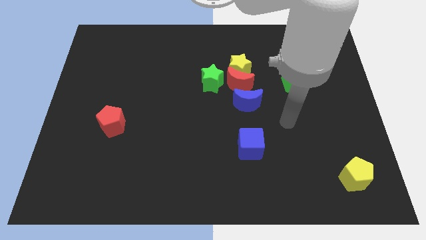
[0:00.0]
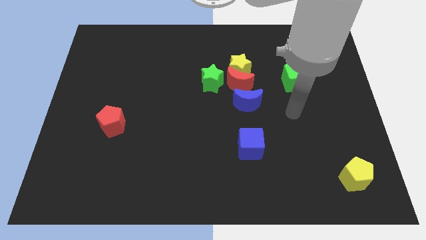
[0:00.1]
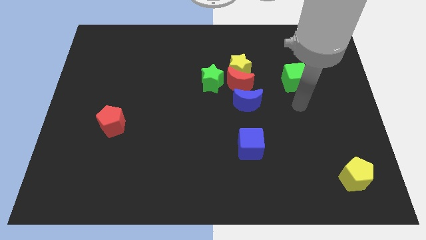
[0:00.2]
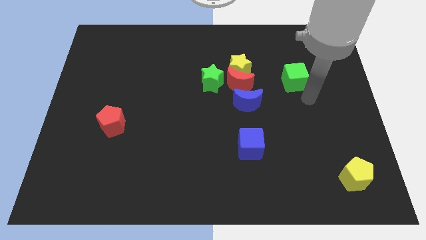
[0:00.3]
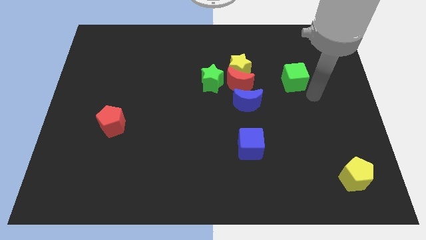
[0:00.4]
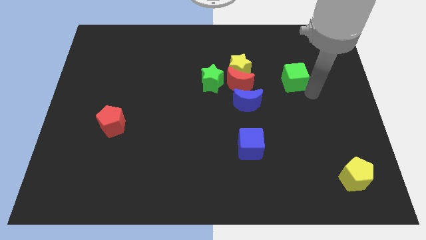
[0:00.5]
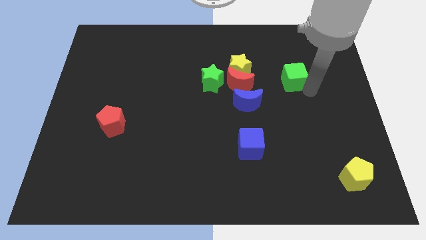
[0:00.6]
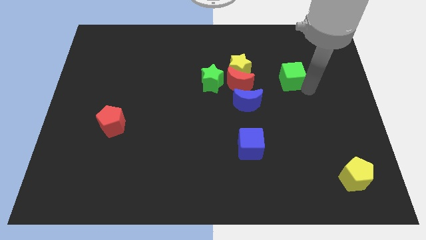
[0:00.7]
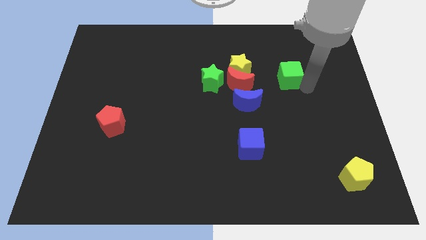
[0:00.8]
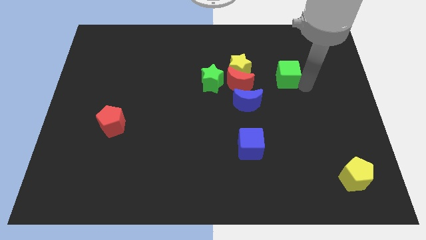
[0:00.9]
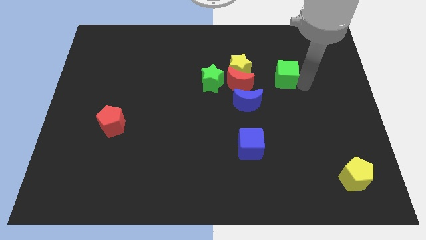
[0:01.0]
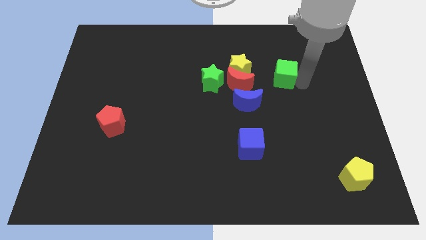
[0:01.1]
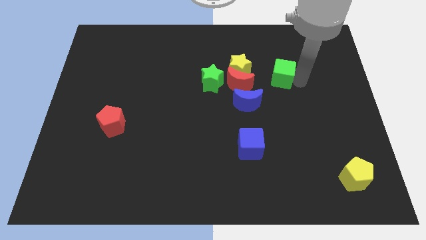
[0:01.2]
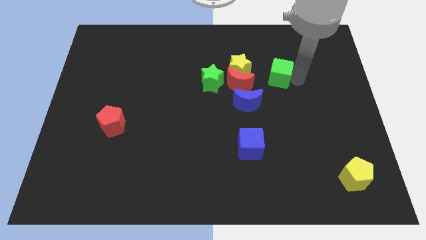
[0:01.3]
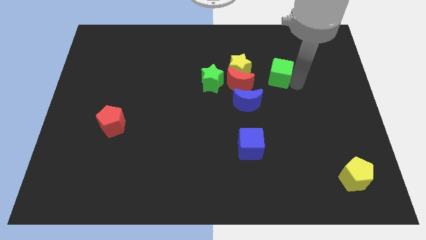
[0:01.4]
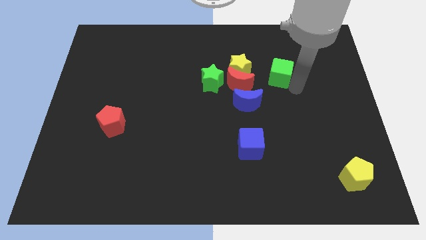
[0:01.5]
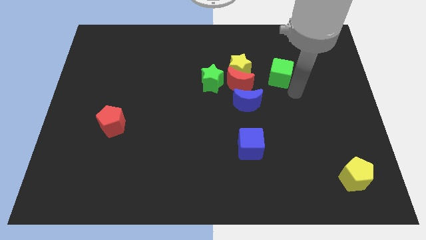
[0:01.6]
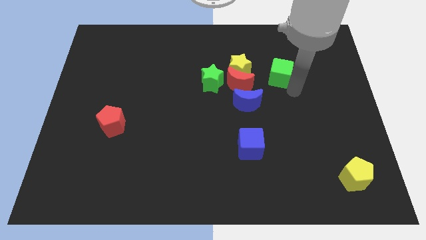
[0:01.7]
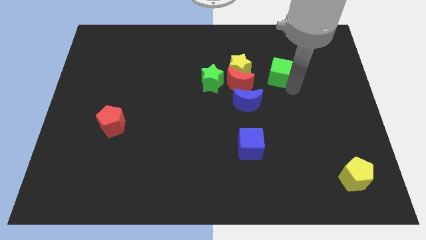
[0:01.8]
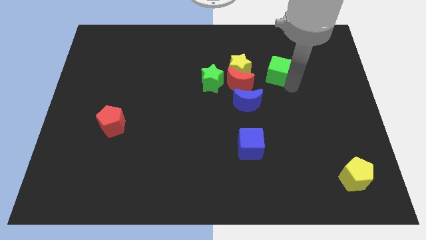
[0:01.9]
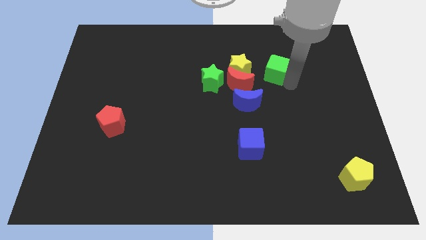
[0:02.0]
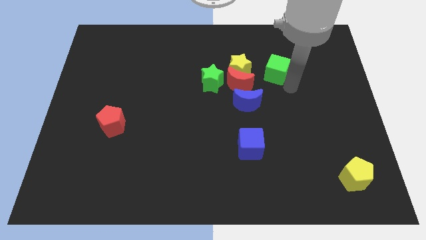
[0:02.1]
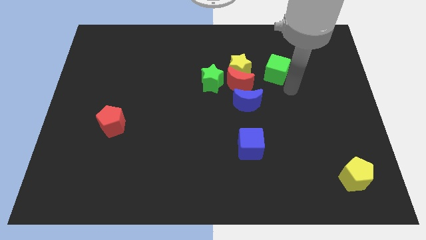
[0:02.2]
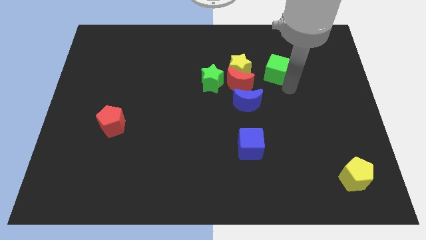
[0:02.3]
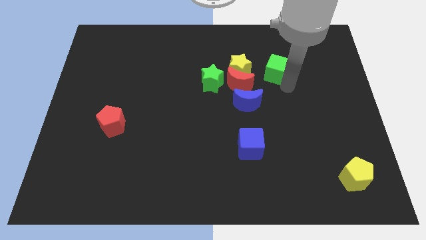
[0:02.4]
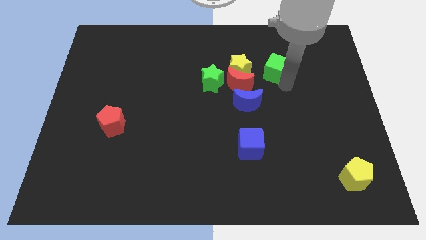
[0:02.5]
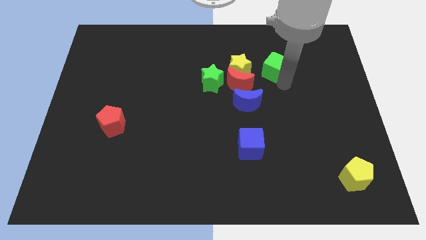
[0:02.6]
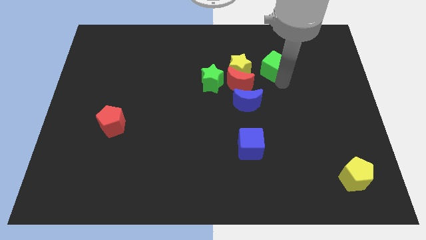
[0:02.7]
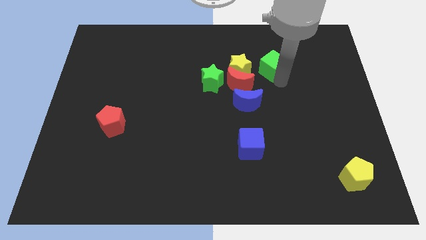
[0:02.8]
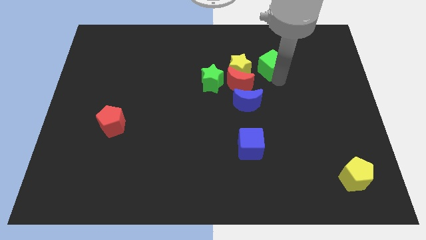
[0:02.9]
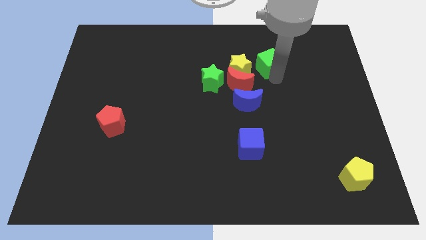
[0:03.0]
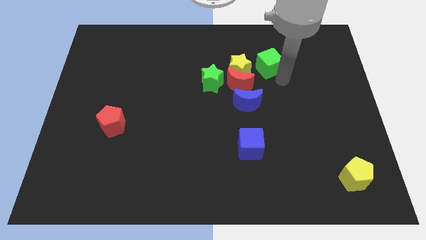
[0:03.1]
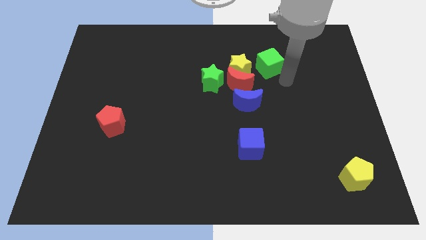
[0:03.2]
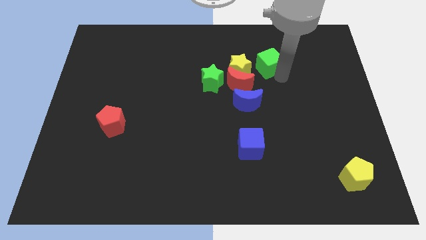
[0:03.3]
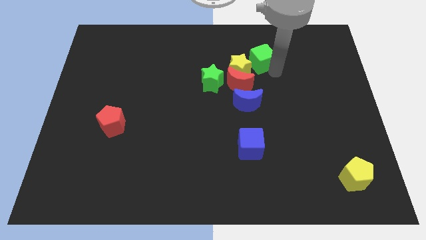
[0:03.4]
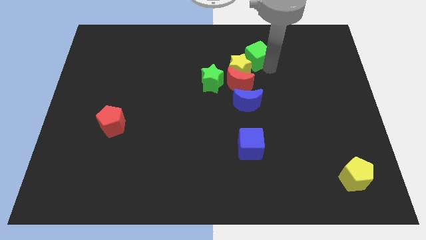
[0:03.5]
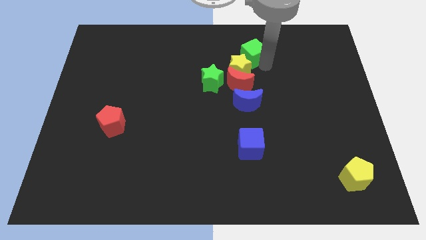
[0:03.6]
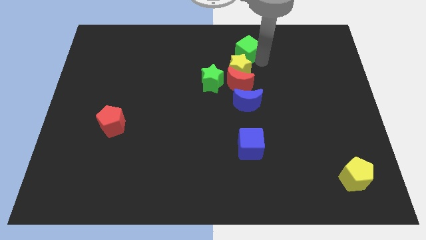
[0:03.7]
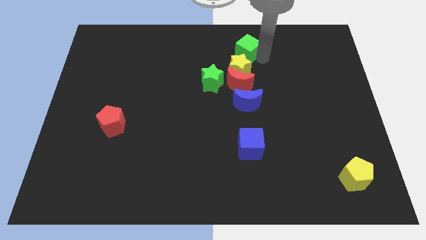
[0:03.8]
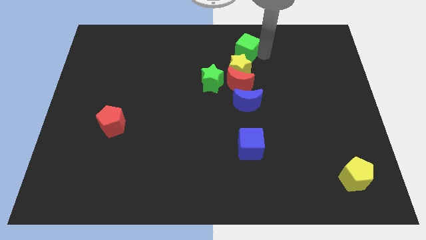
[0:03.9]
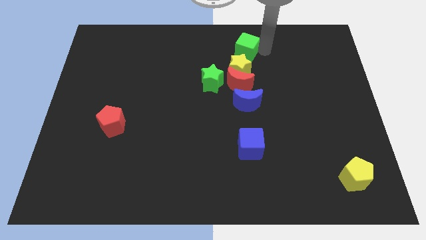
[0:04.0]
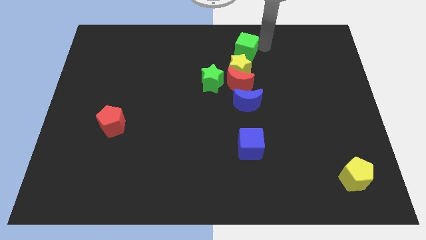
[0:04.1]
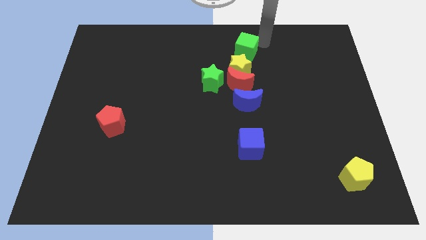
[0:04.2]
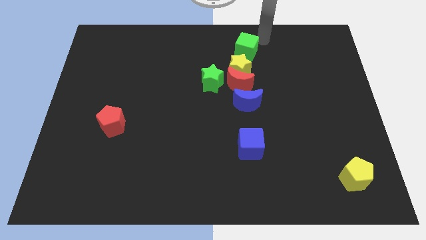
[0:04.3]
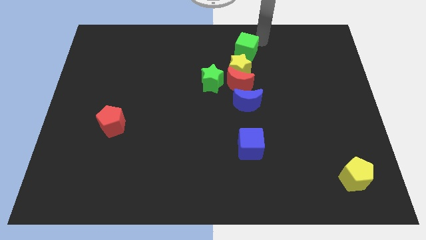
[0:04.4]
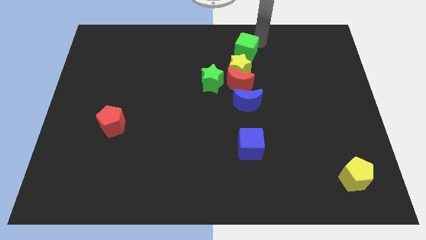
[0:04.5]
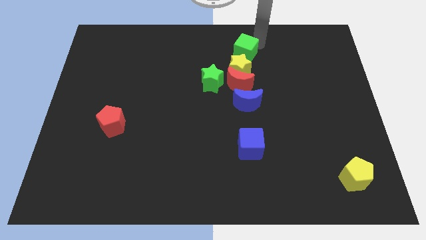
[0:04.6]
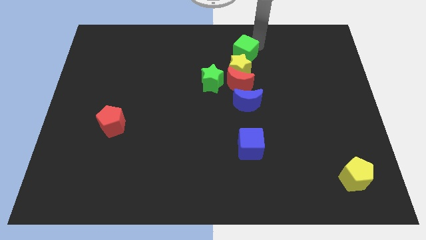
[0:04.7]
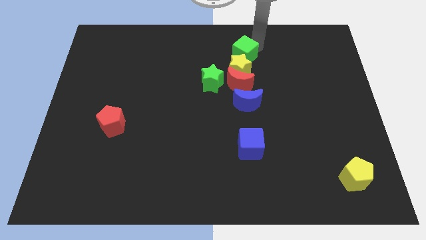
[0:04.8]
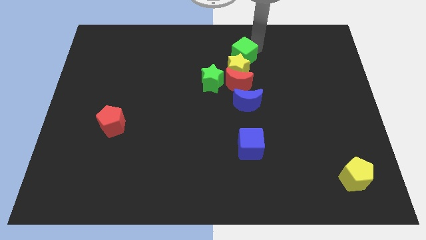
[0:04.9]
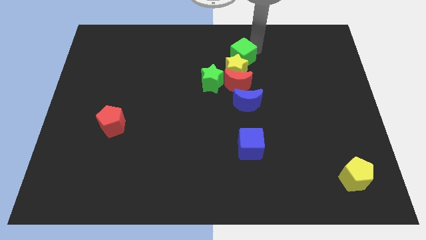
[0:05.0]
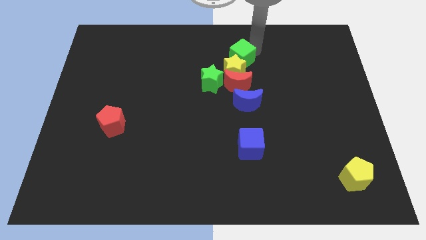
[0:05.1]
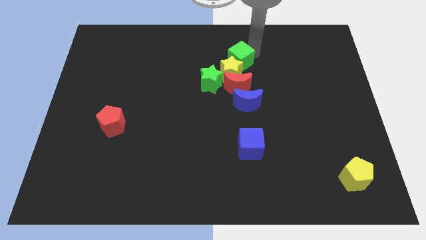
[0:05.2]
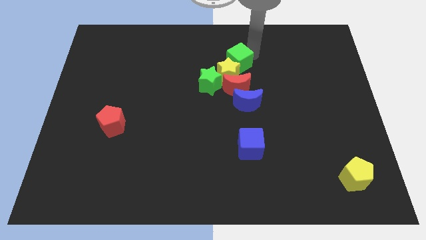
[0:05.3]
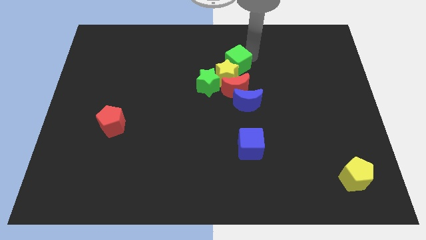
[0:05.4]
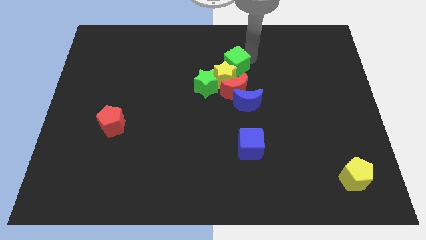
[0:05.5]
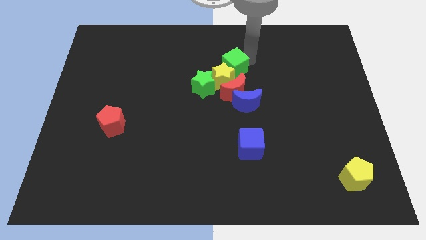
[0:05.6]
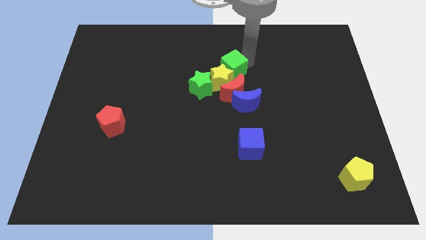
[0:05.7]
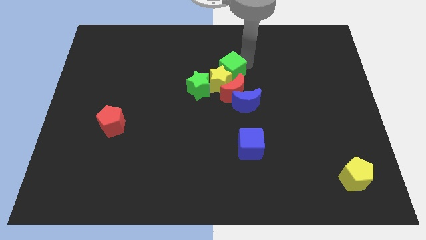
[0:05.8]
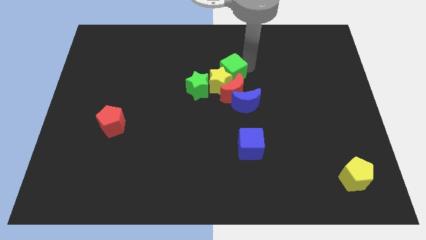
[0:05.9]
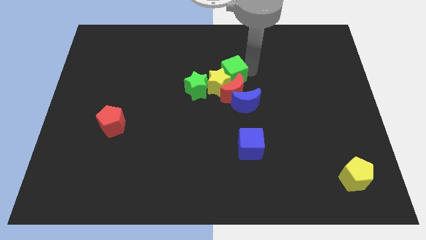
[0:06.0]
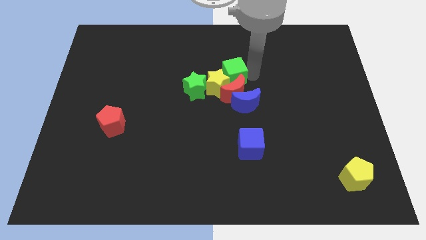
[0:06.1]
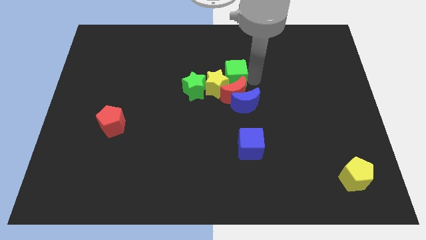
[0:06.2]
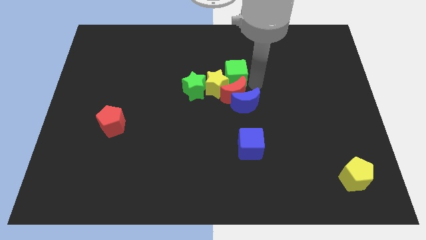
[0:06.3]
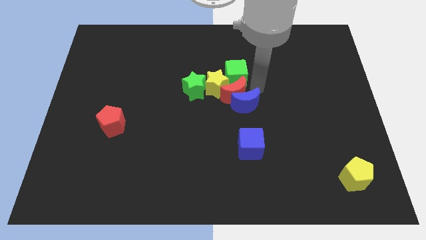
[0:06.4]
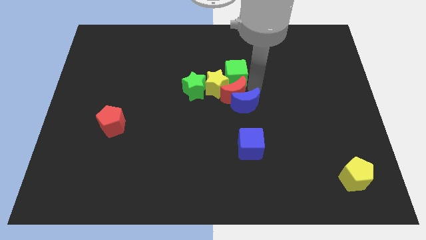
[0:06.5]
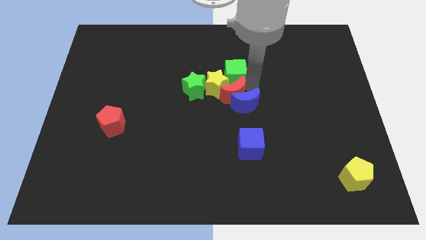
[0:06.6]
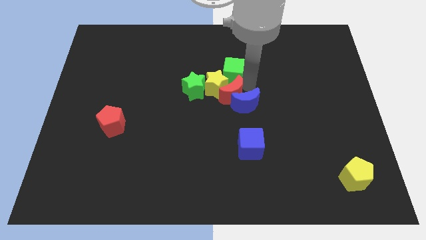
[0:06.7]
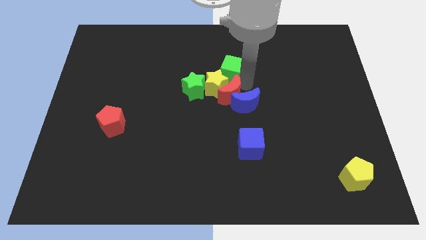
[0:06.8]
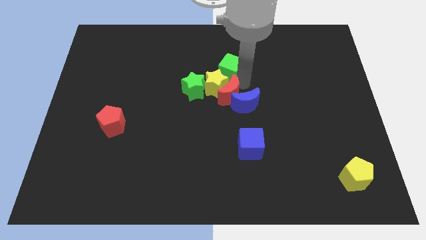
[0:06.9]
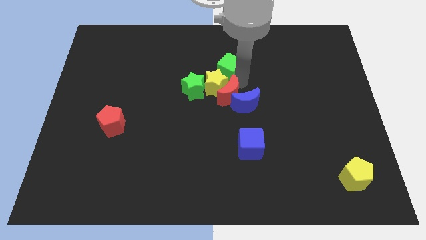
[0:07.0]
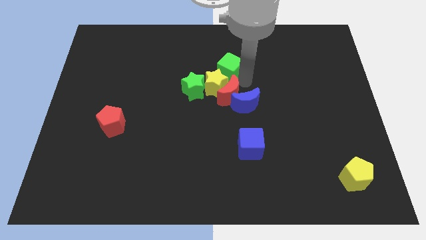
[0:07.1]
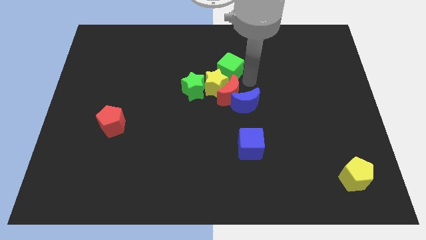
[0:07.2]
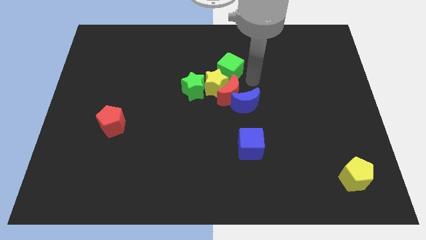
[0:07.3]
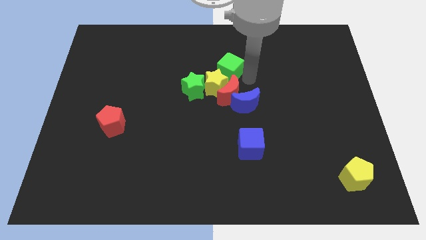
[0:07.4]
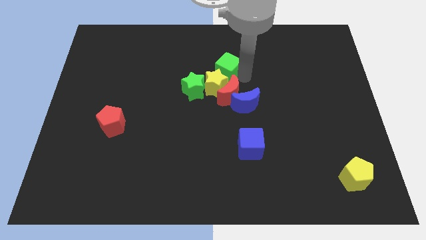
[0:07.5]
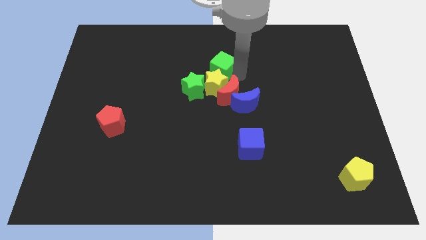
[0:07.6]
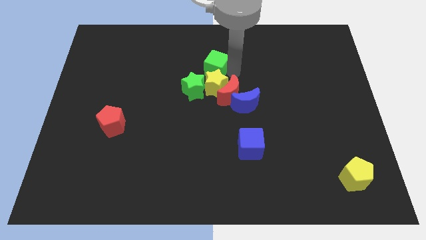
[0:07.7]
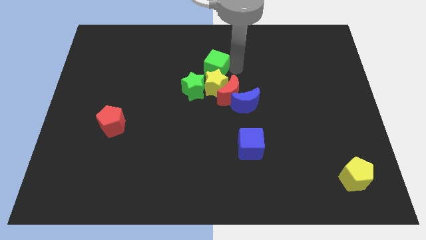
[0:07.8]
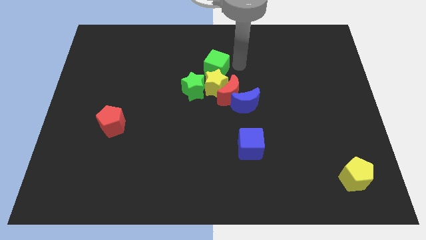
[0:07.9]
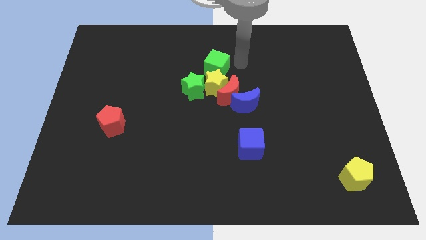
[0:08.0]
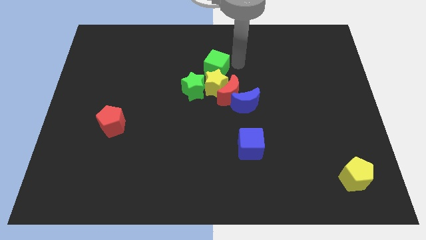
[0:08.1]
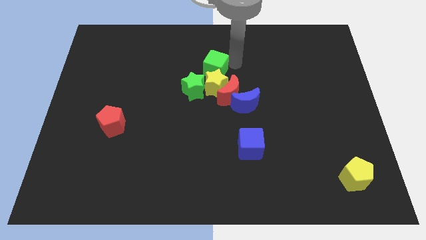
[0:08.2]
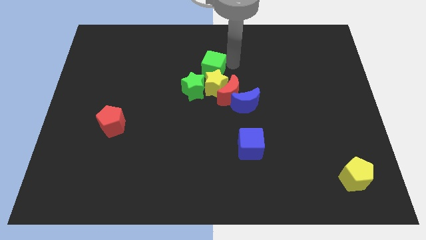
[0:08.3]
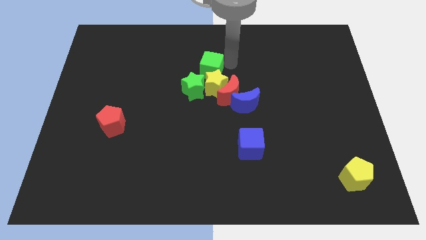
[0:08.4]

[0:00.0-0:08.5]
push the green cube to the left
